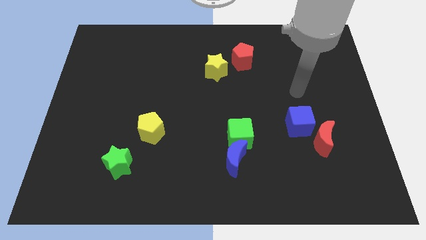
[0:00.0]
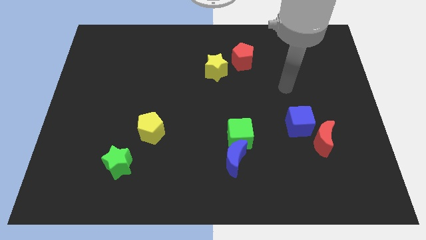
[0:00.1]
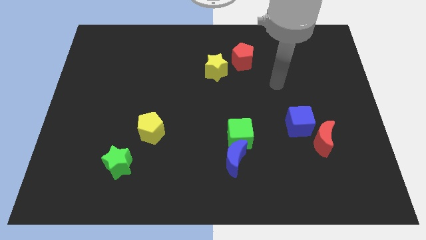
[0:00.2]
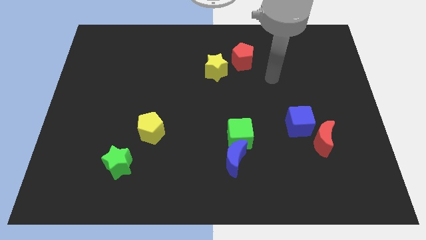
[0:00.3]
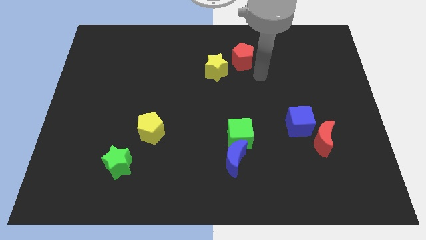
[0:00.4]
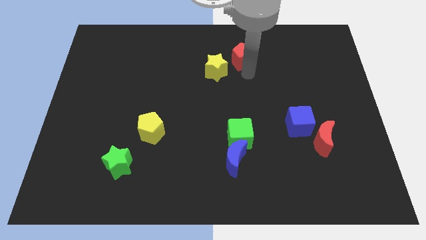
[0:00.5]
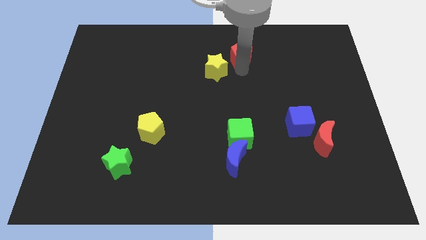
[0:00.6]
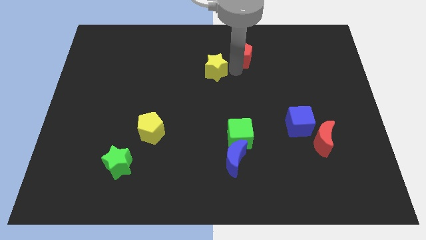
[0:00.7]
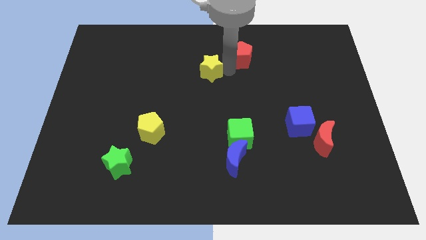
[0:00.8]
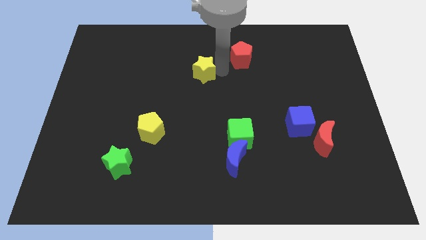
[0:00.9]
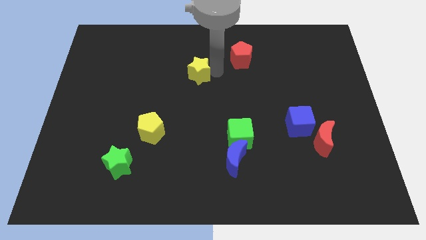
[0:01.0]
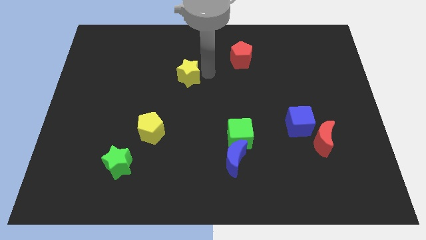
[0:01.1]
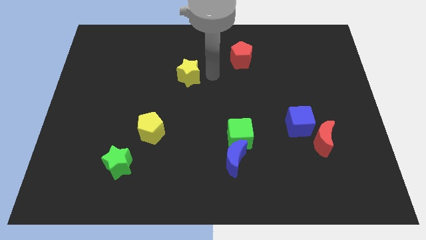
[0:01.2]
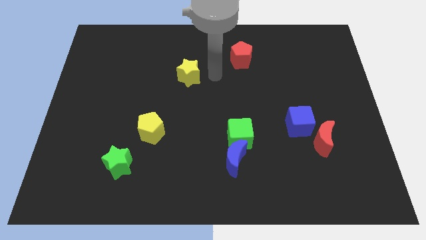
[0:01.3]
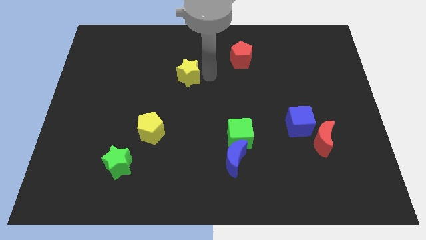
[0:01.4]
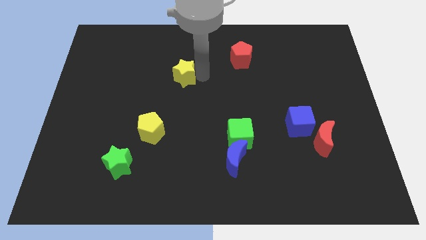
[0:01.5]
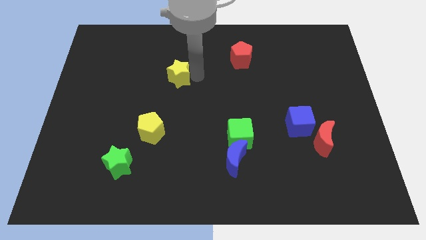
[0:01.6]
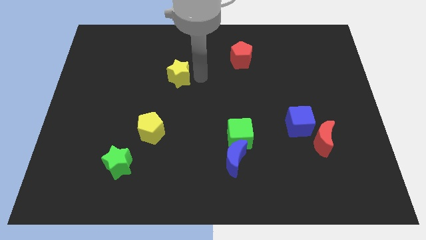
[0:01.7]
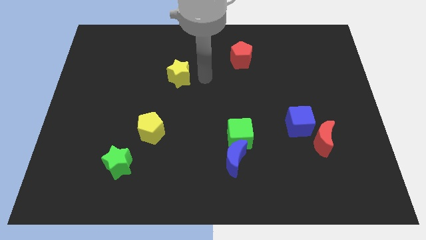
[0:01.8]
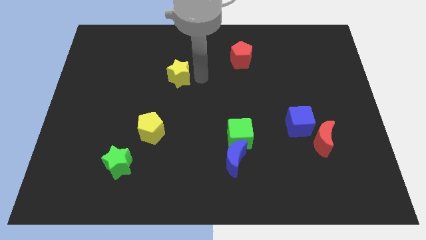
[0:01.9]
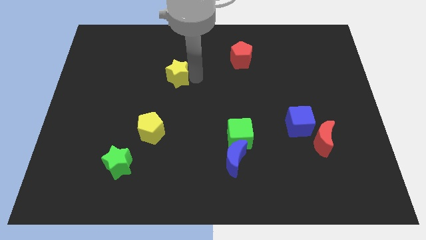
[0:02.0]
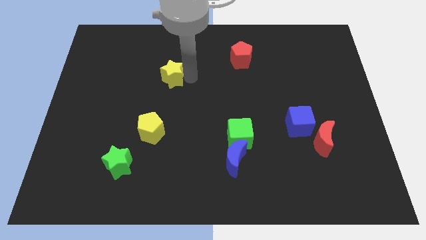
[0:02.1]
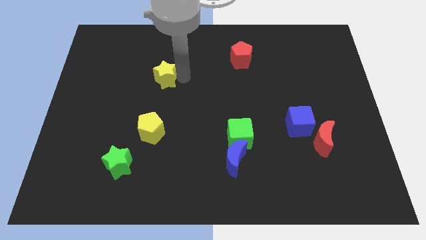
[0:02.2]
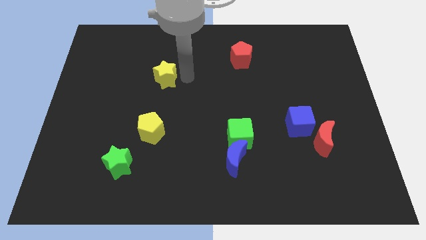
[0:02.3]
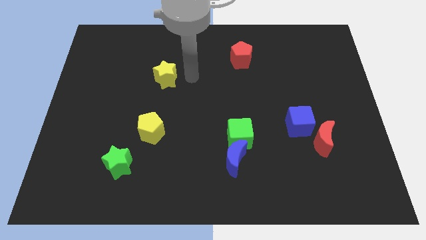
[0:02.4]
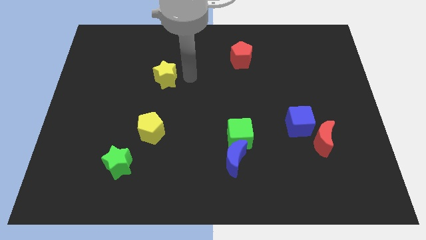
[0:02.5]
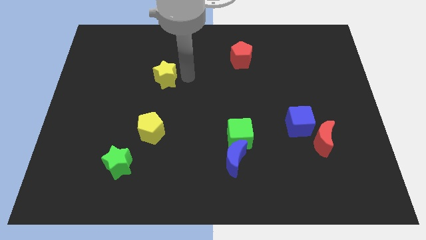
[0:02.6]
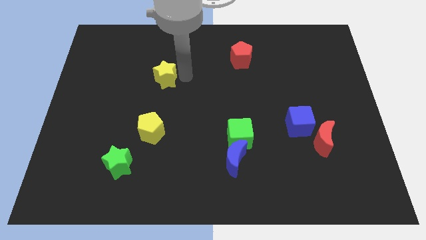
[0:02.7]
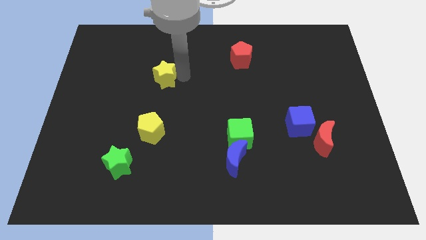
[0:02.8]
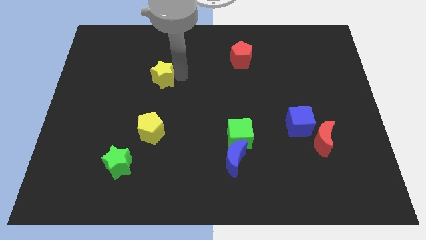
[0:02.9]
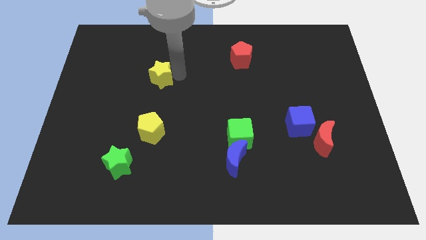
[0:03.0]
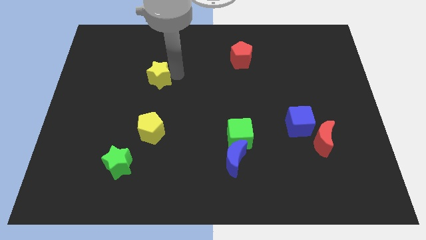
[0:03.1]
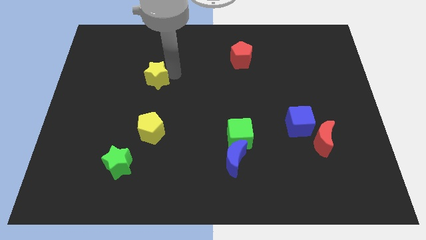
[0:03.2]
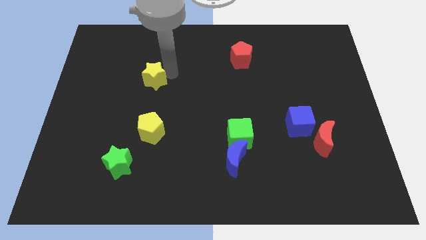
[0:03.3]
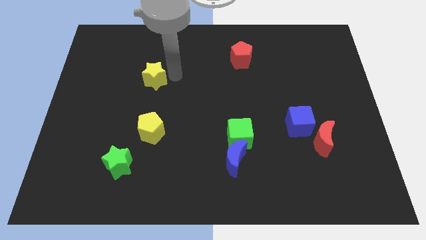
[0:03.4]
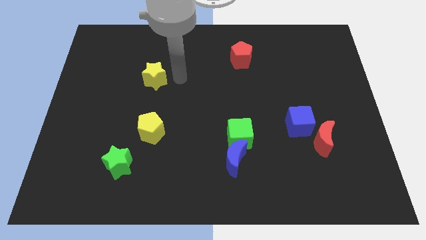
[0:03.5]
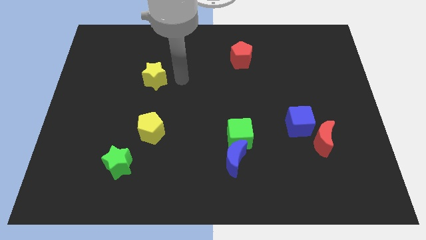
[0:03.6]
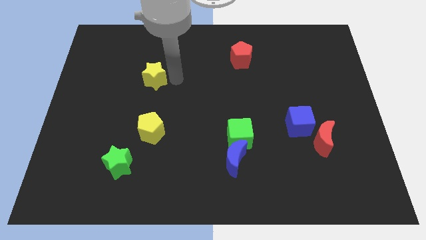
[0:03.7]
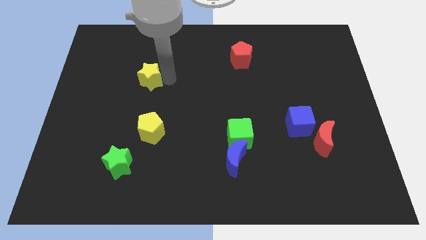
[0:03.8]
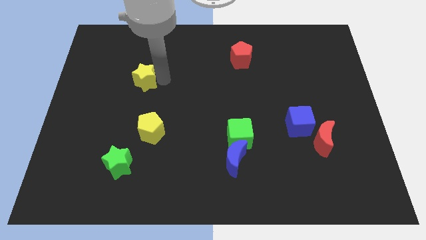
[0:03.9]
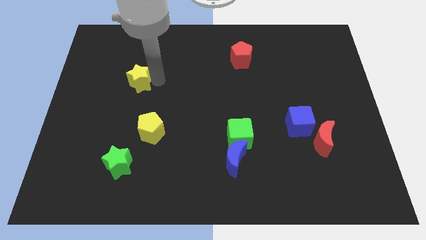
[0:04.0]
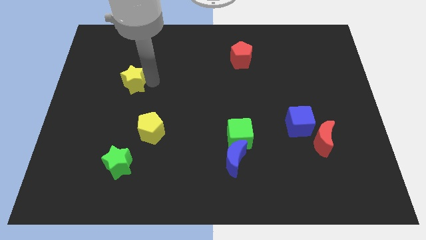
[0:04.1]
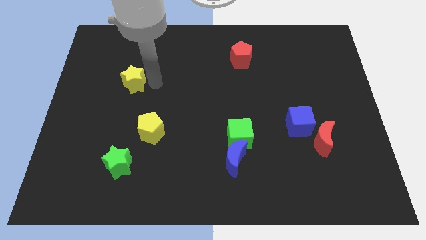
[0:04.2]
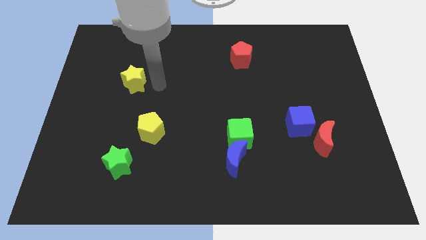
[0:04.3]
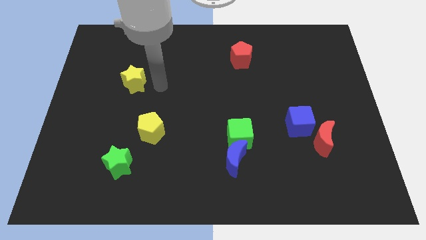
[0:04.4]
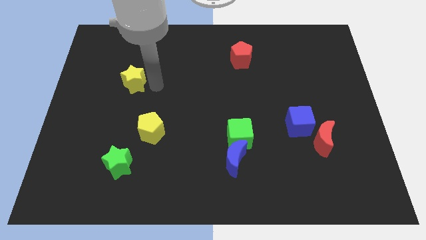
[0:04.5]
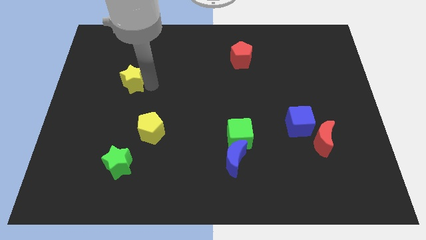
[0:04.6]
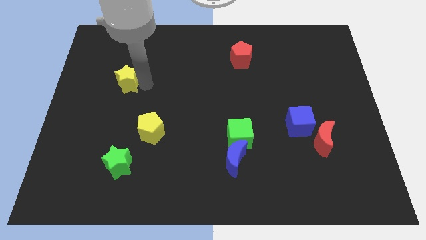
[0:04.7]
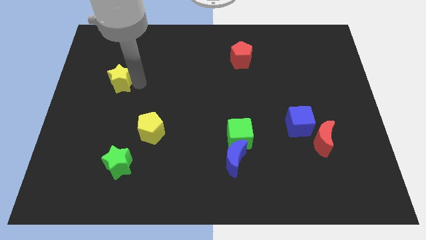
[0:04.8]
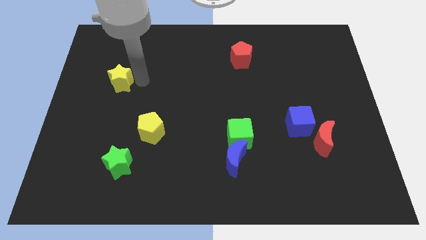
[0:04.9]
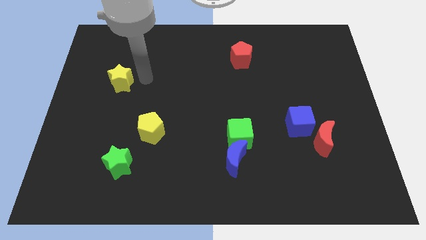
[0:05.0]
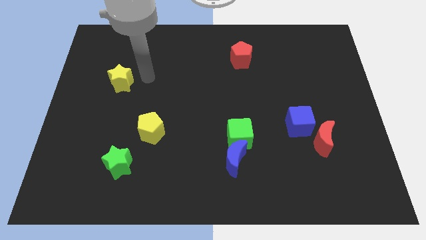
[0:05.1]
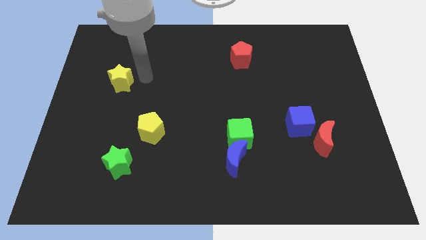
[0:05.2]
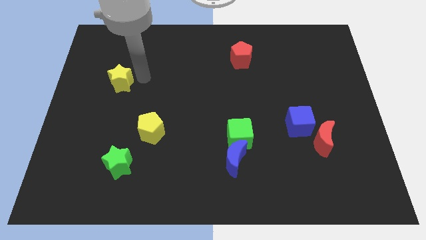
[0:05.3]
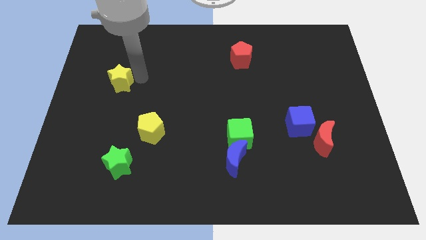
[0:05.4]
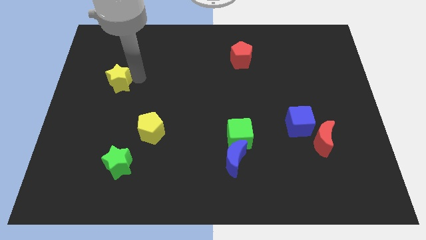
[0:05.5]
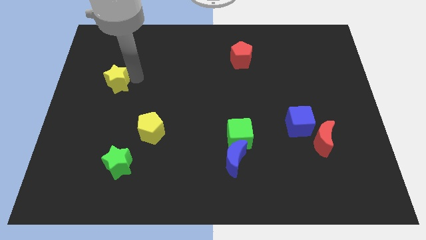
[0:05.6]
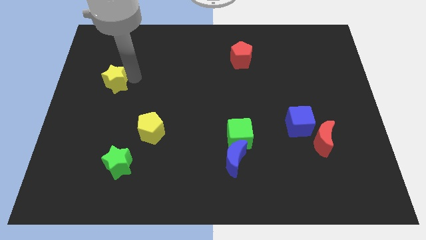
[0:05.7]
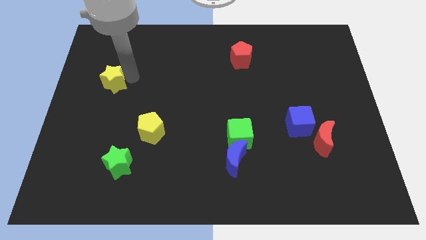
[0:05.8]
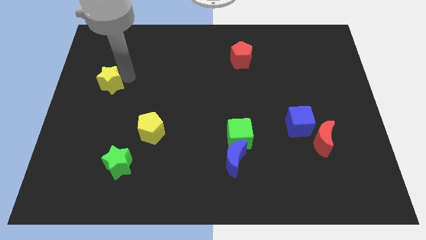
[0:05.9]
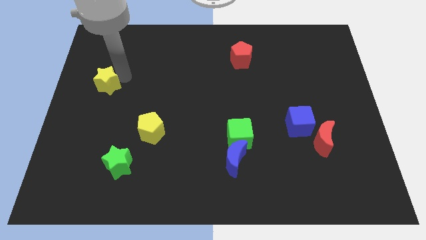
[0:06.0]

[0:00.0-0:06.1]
push the yellow star to the center left
